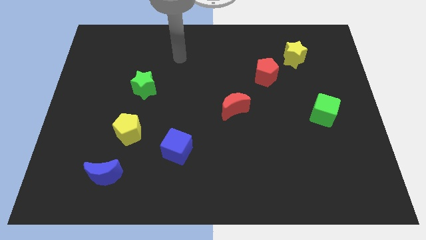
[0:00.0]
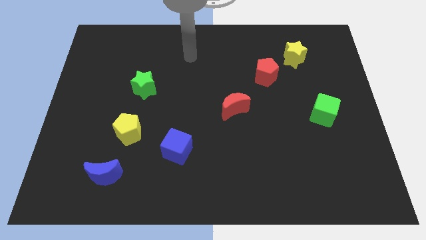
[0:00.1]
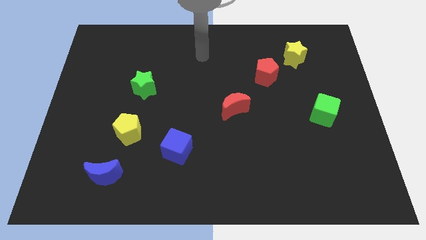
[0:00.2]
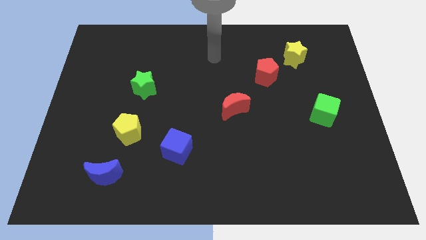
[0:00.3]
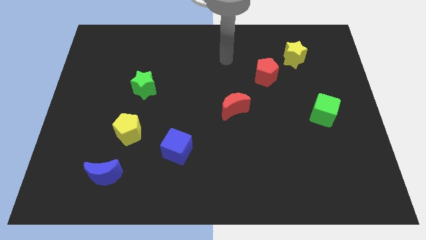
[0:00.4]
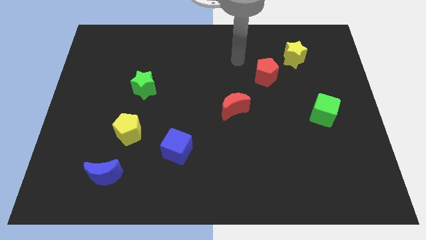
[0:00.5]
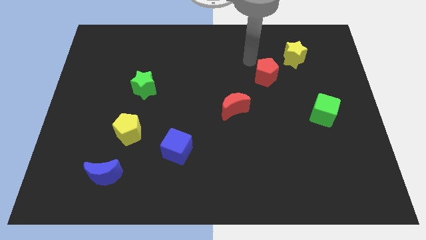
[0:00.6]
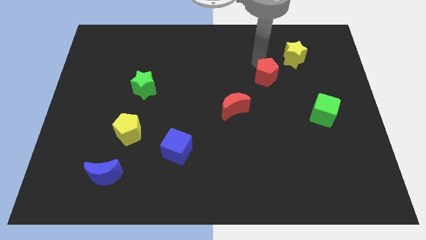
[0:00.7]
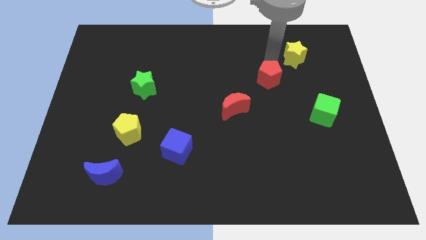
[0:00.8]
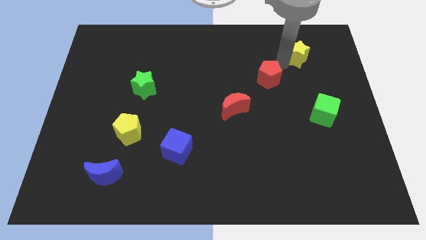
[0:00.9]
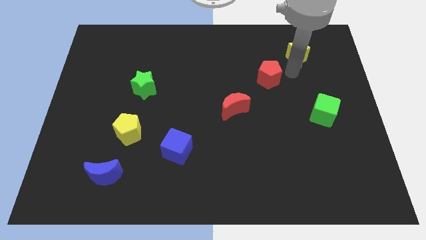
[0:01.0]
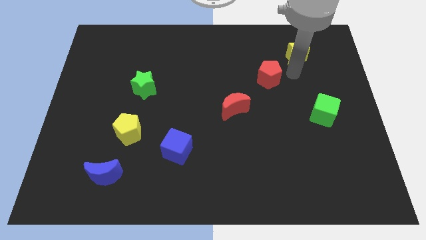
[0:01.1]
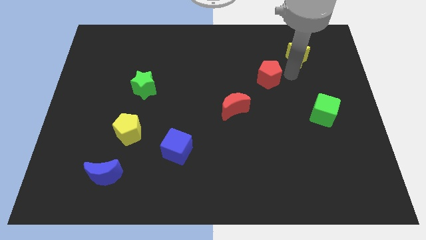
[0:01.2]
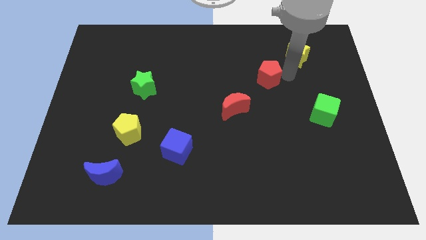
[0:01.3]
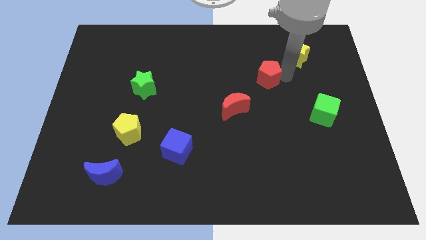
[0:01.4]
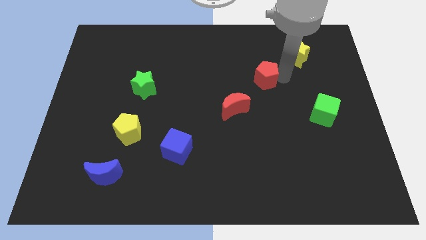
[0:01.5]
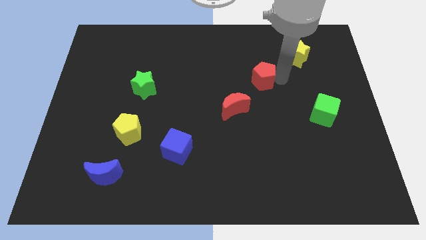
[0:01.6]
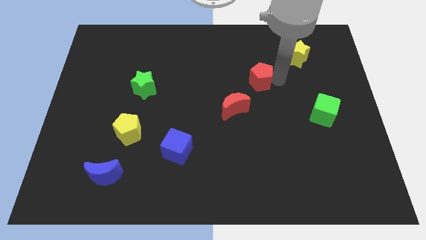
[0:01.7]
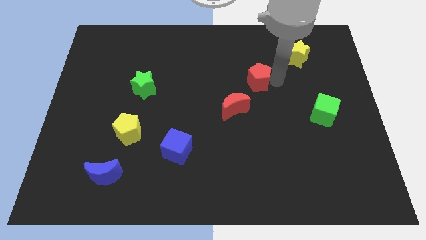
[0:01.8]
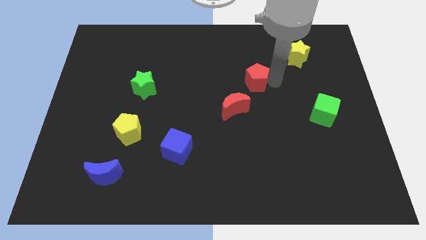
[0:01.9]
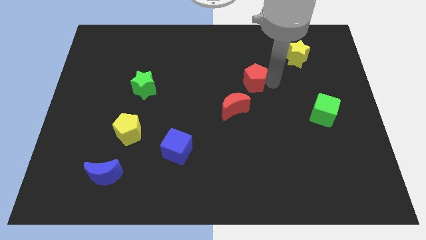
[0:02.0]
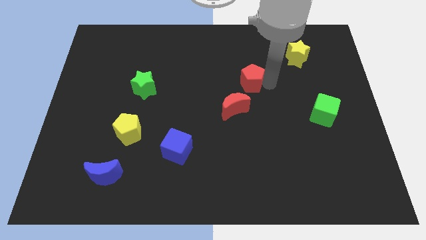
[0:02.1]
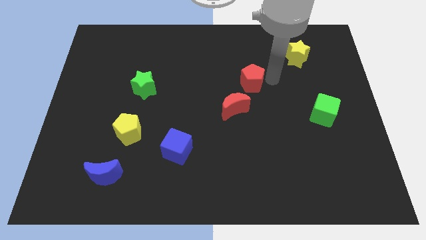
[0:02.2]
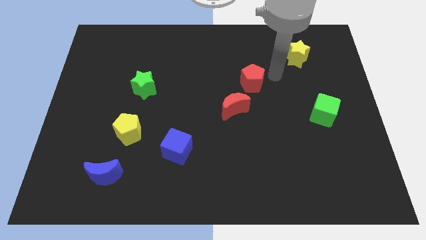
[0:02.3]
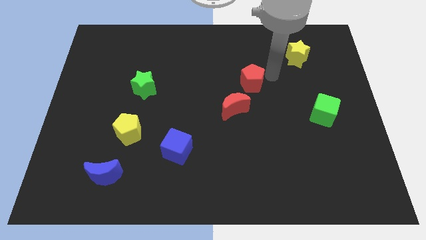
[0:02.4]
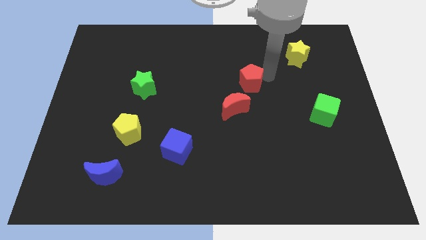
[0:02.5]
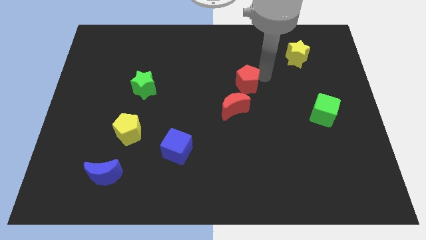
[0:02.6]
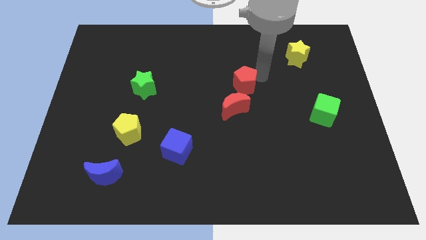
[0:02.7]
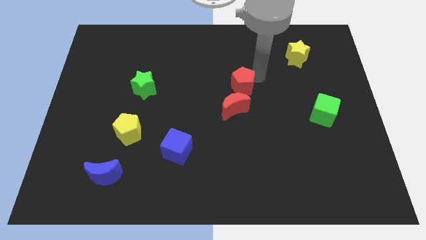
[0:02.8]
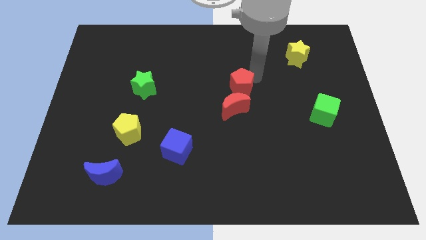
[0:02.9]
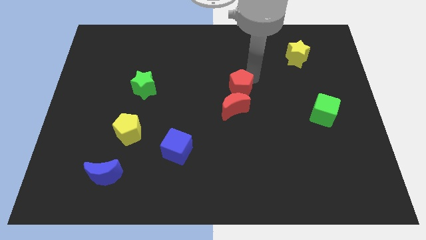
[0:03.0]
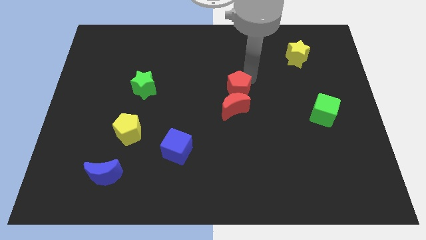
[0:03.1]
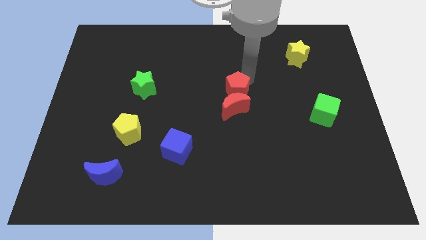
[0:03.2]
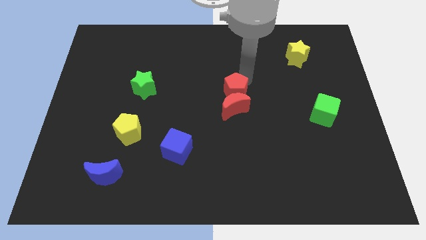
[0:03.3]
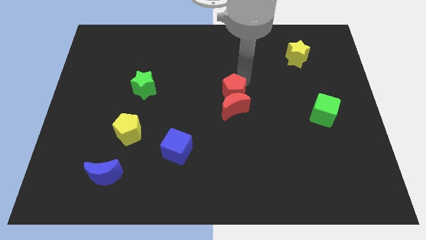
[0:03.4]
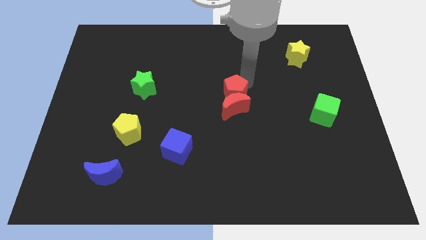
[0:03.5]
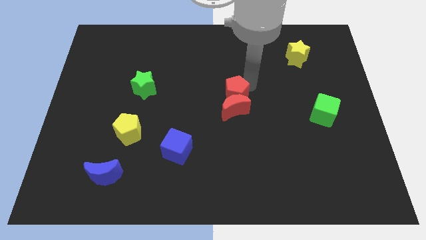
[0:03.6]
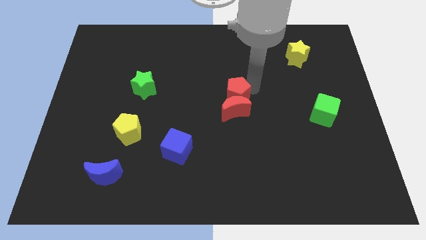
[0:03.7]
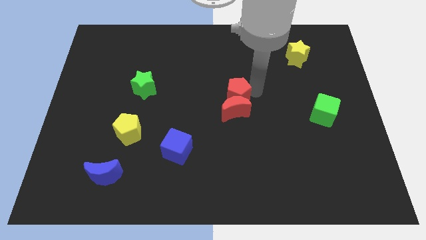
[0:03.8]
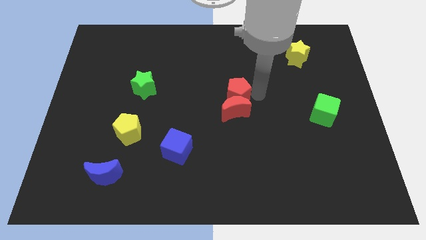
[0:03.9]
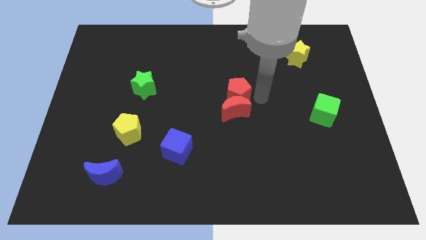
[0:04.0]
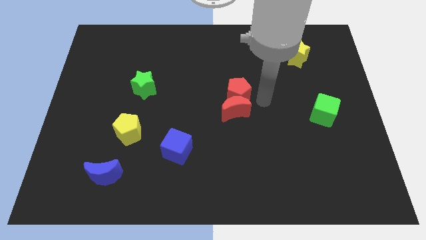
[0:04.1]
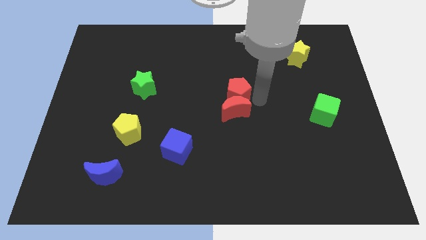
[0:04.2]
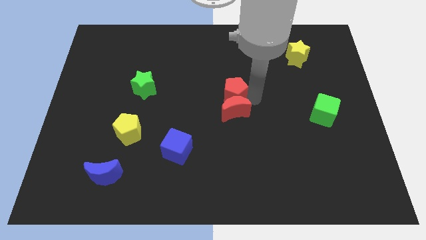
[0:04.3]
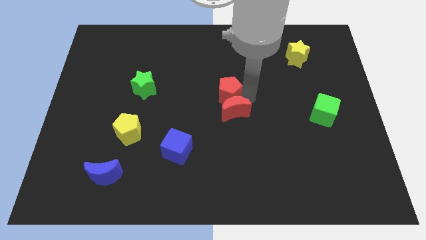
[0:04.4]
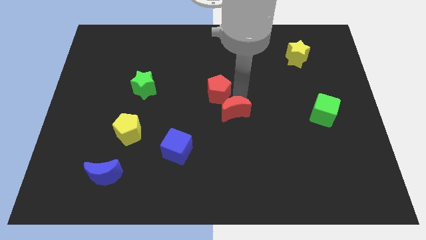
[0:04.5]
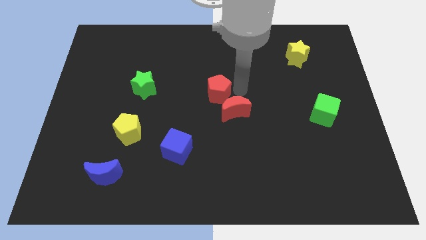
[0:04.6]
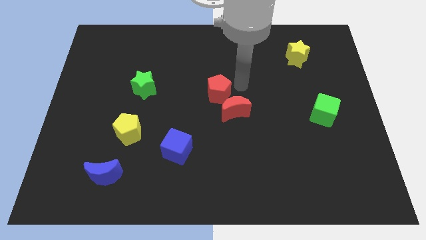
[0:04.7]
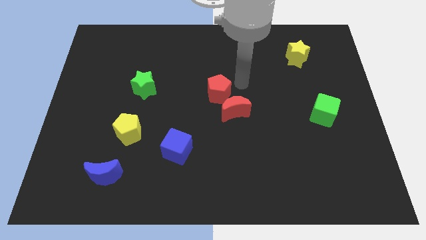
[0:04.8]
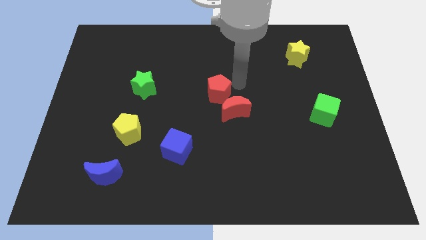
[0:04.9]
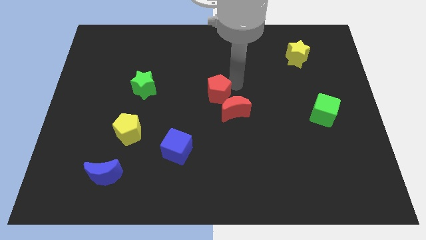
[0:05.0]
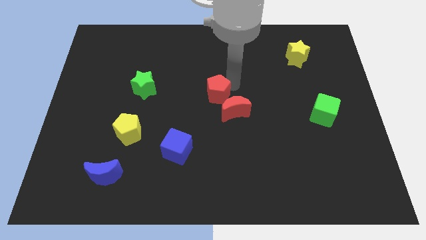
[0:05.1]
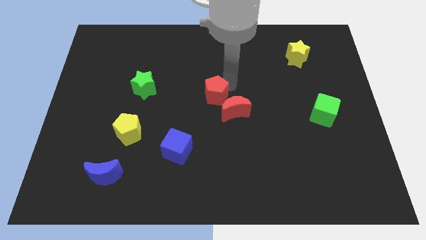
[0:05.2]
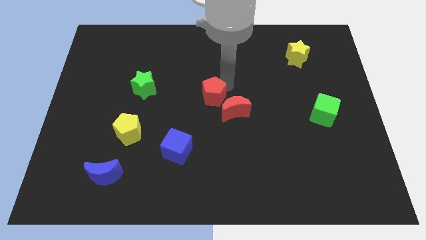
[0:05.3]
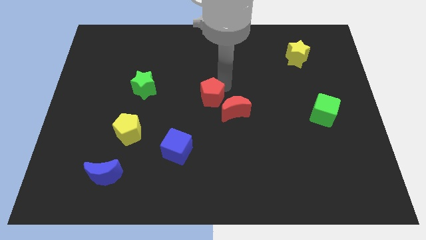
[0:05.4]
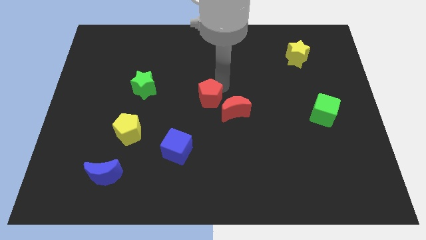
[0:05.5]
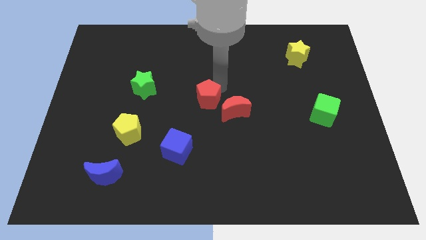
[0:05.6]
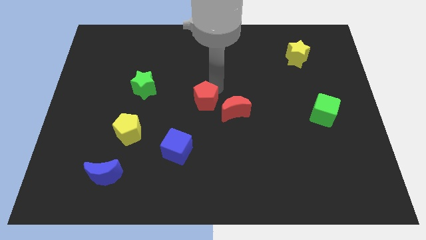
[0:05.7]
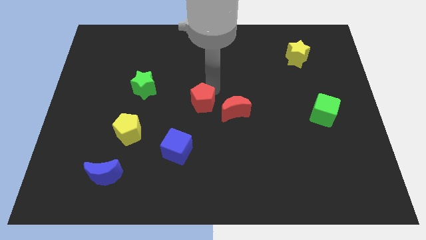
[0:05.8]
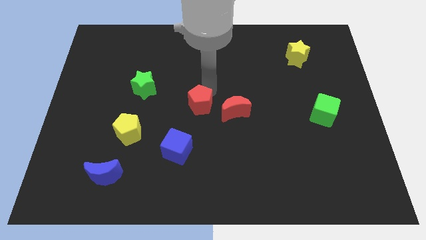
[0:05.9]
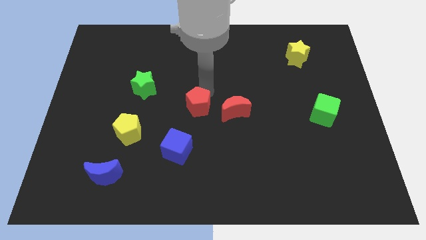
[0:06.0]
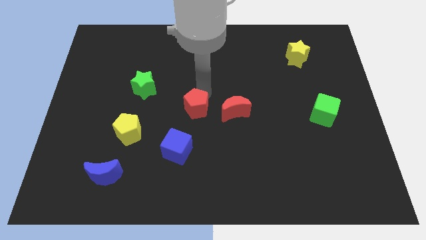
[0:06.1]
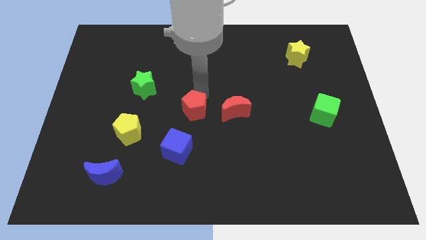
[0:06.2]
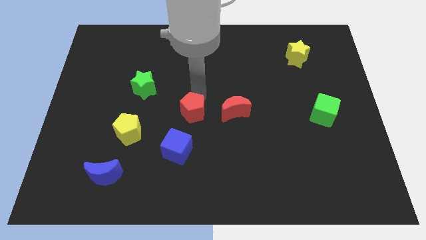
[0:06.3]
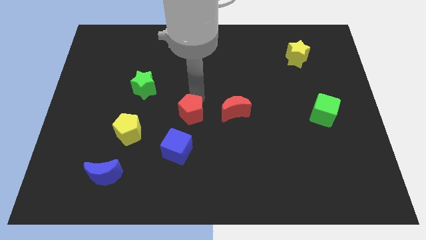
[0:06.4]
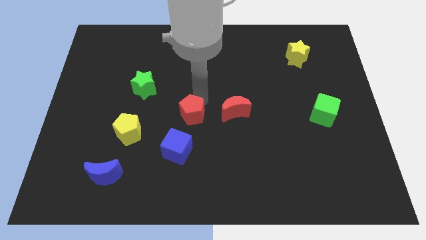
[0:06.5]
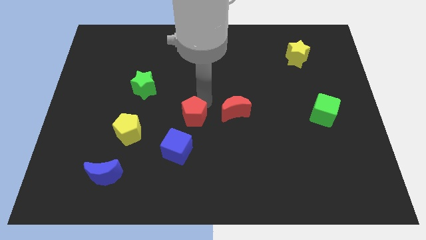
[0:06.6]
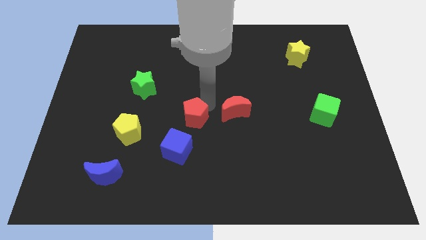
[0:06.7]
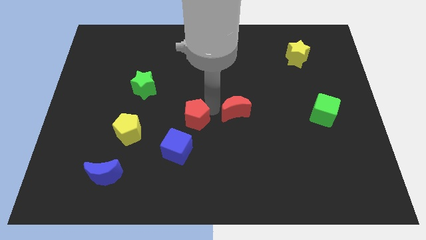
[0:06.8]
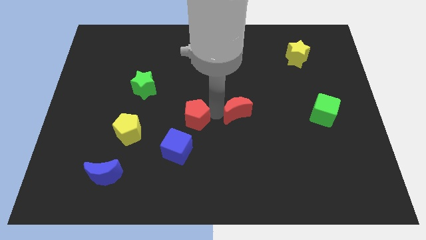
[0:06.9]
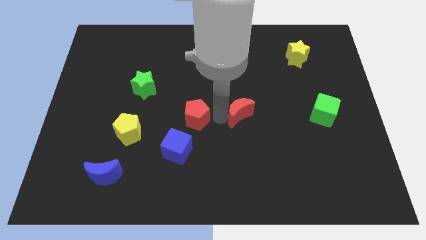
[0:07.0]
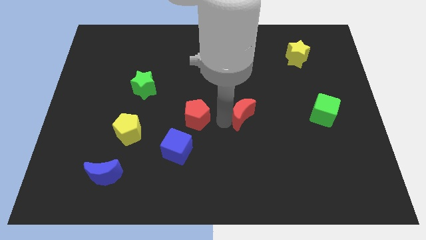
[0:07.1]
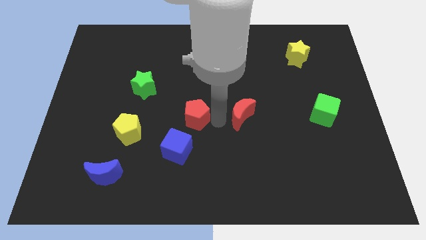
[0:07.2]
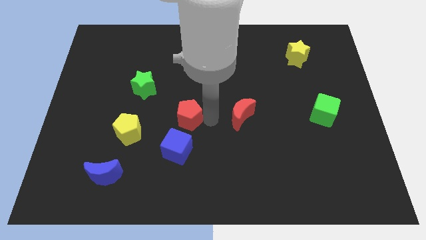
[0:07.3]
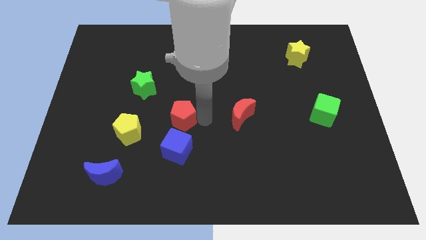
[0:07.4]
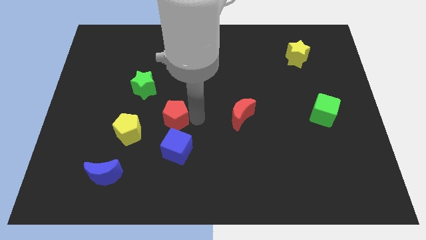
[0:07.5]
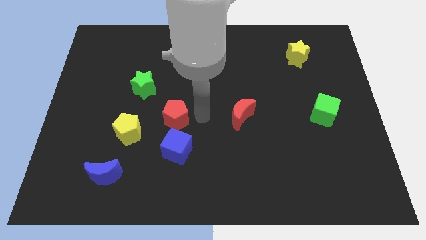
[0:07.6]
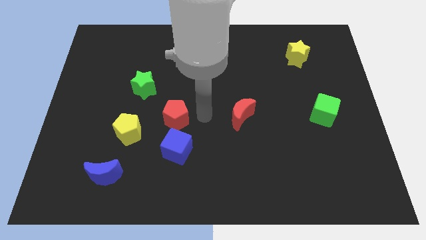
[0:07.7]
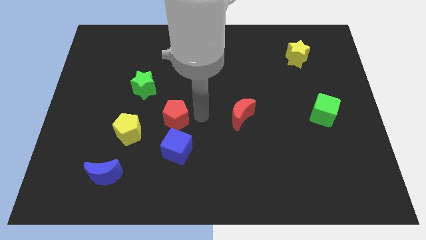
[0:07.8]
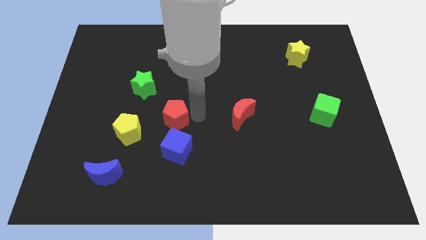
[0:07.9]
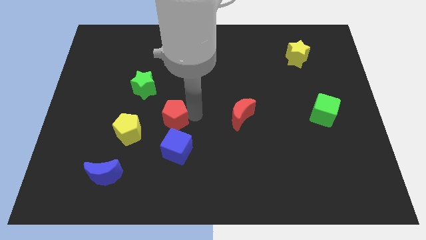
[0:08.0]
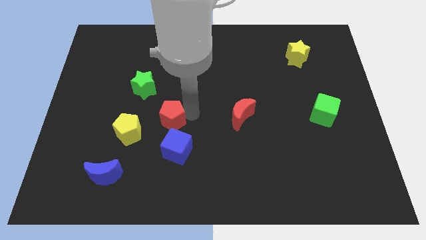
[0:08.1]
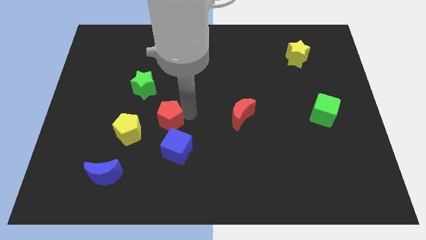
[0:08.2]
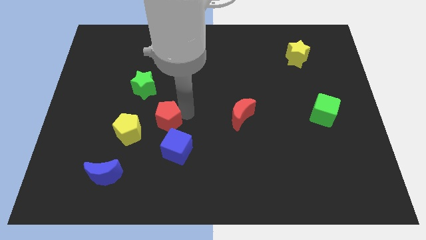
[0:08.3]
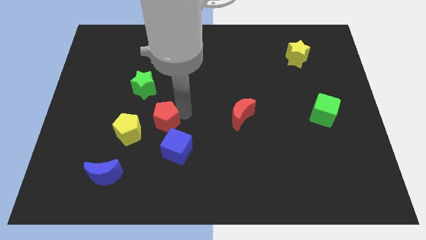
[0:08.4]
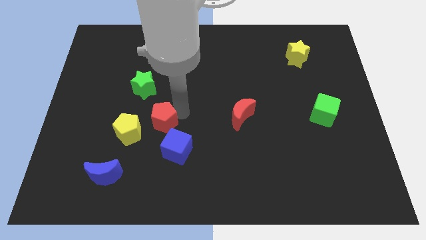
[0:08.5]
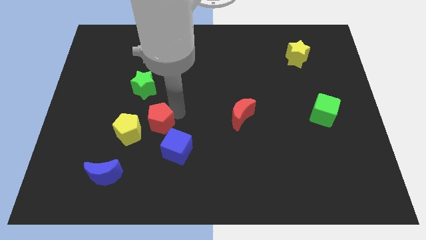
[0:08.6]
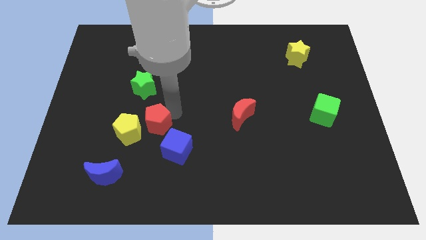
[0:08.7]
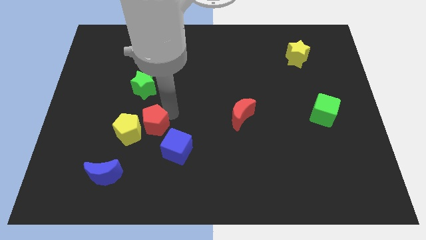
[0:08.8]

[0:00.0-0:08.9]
move the red pentagon next to the yellow pentagon
